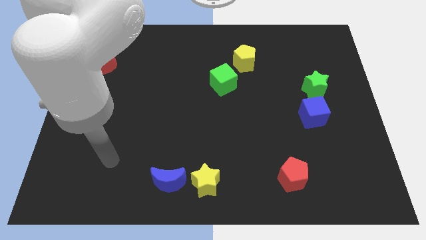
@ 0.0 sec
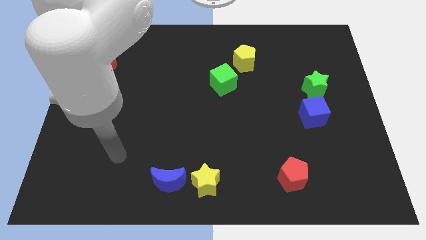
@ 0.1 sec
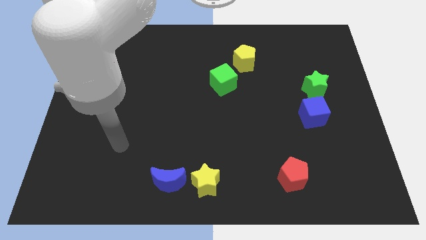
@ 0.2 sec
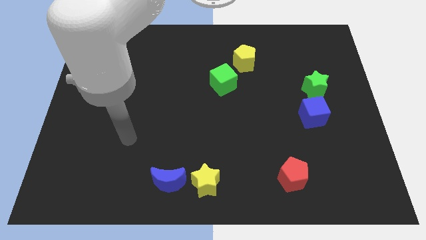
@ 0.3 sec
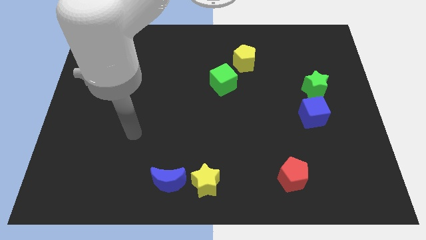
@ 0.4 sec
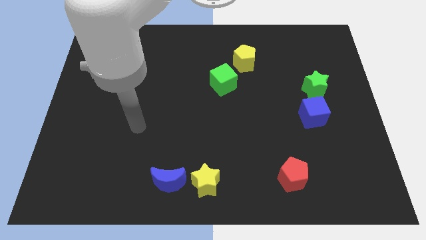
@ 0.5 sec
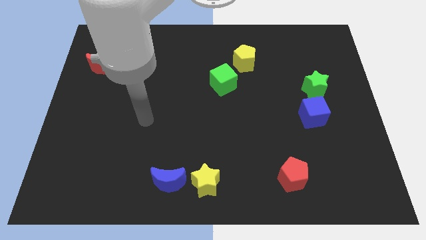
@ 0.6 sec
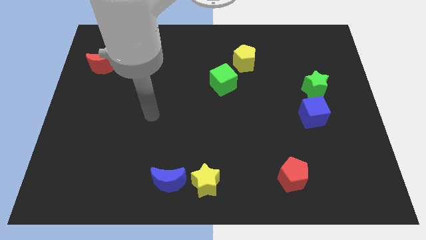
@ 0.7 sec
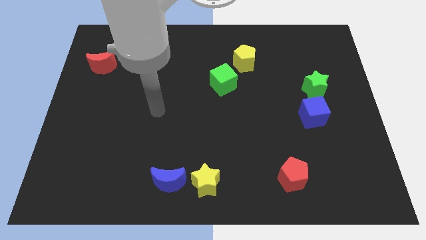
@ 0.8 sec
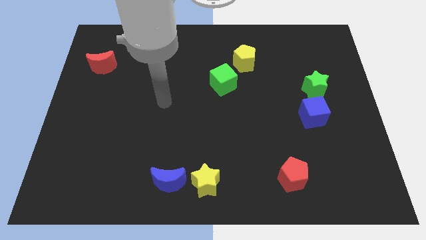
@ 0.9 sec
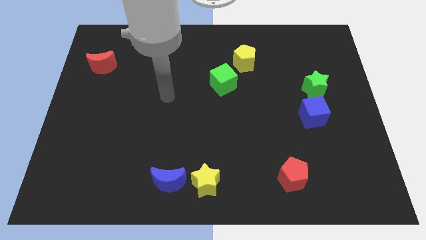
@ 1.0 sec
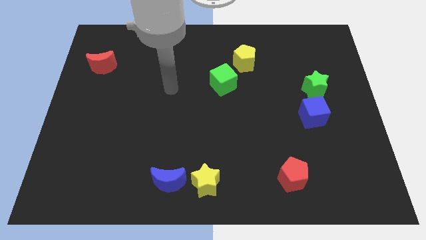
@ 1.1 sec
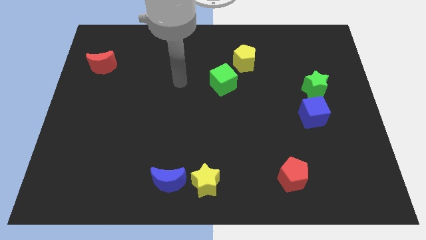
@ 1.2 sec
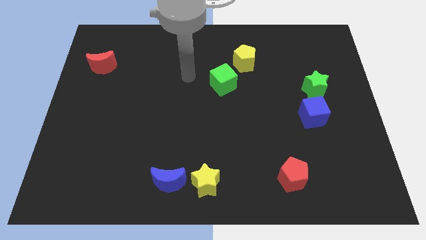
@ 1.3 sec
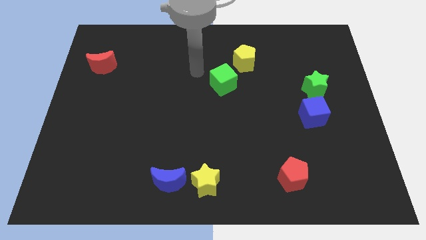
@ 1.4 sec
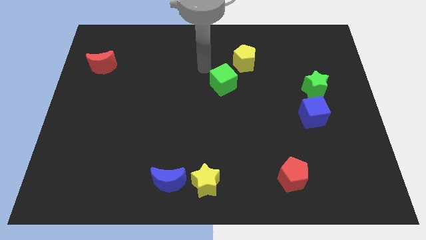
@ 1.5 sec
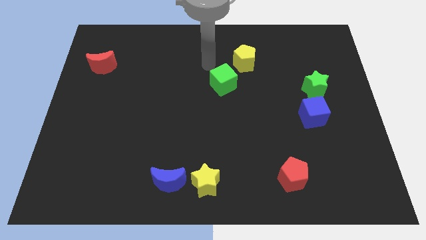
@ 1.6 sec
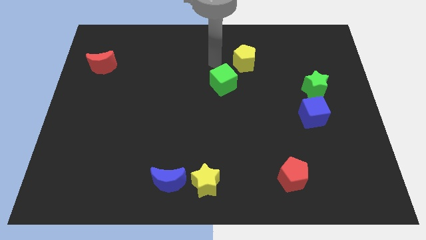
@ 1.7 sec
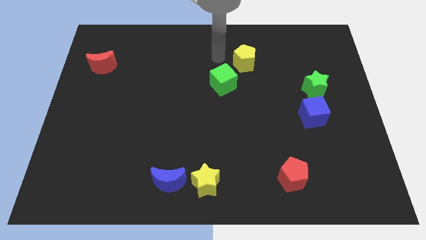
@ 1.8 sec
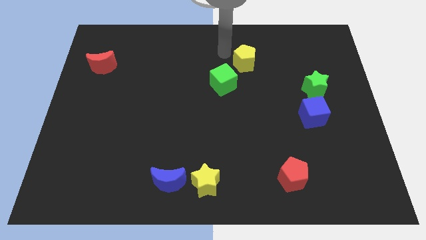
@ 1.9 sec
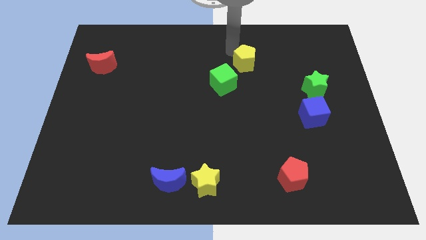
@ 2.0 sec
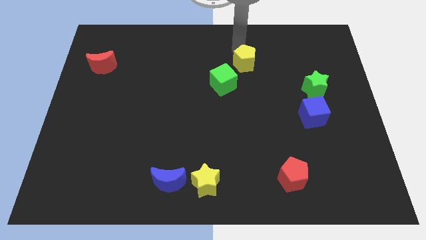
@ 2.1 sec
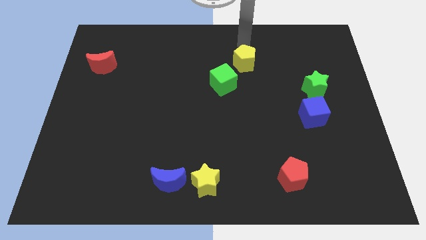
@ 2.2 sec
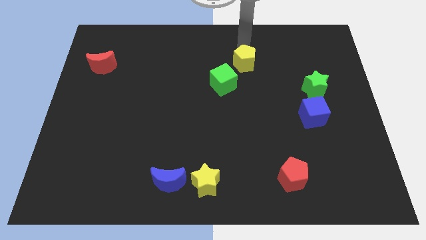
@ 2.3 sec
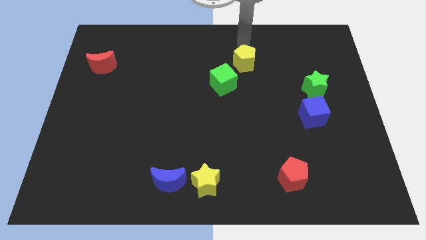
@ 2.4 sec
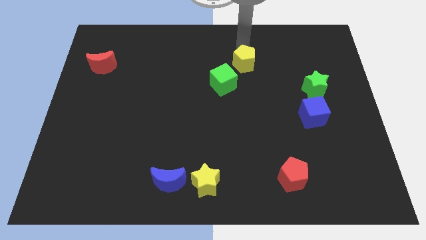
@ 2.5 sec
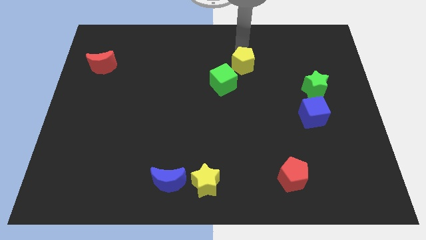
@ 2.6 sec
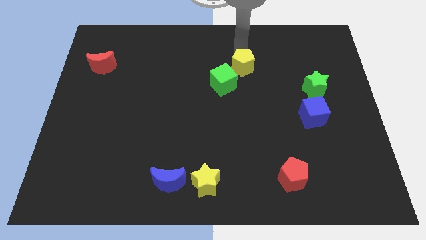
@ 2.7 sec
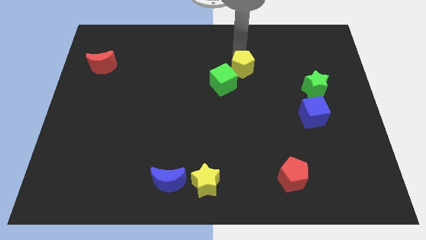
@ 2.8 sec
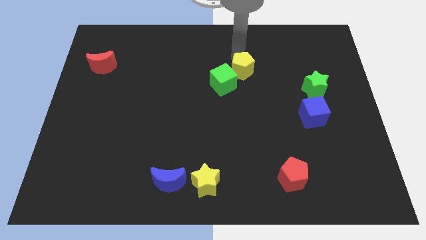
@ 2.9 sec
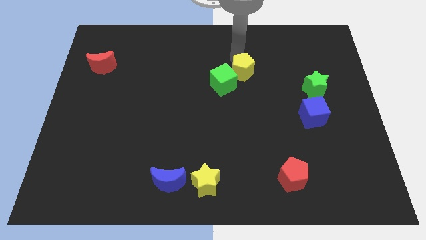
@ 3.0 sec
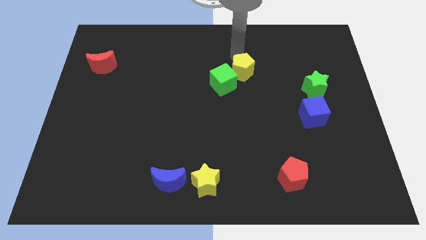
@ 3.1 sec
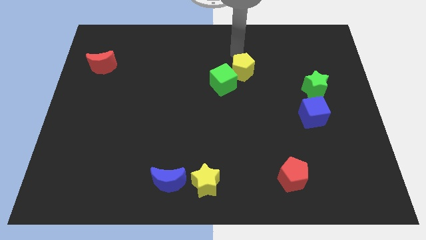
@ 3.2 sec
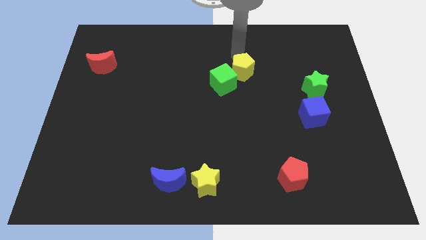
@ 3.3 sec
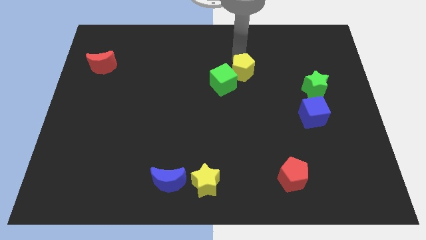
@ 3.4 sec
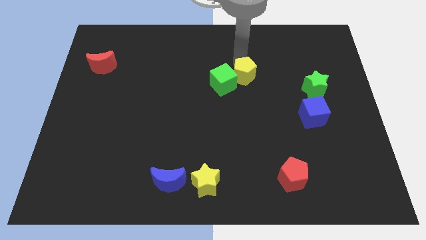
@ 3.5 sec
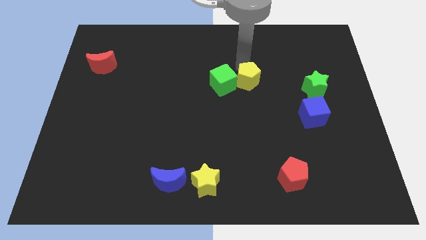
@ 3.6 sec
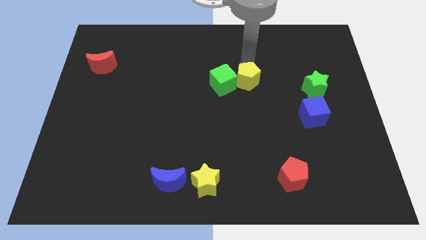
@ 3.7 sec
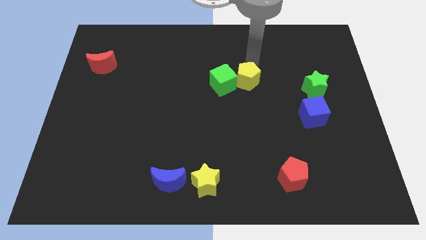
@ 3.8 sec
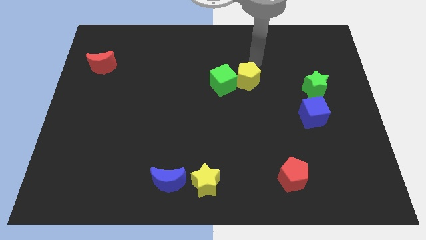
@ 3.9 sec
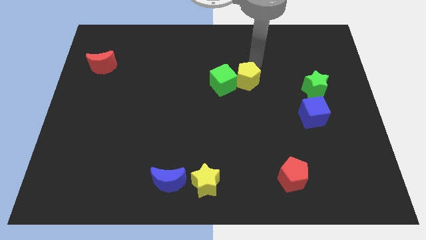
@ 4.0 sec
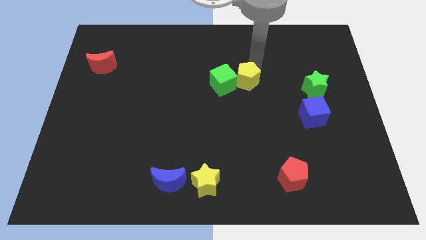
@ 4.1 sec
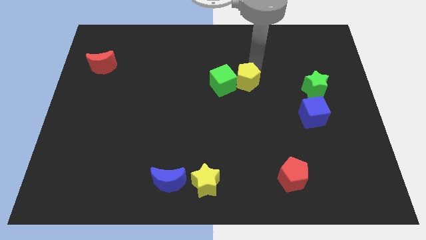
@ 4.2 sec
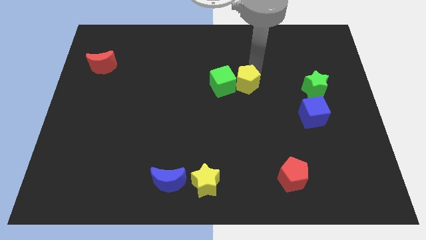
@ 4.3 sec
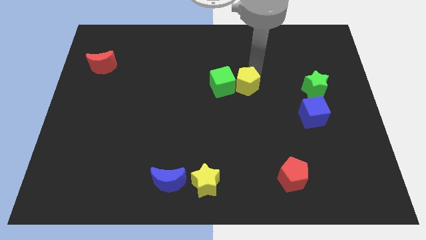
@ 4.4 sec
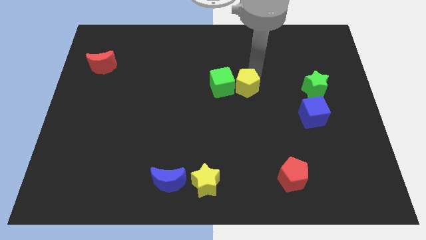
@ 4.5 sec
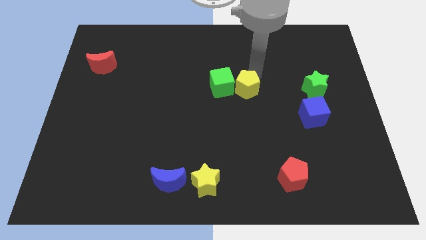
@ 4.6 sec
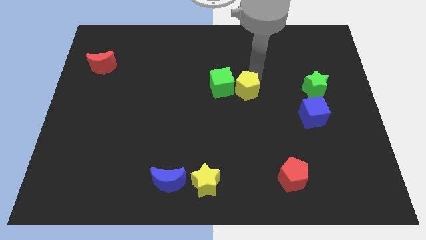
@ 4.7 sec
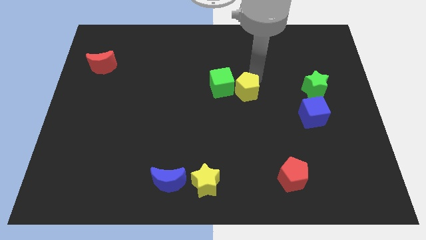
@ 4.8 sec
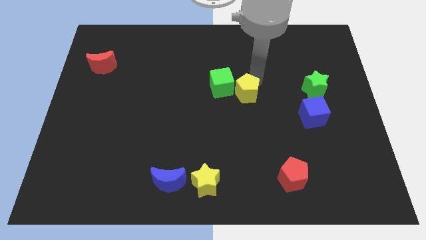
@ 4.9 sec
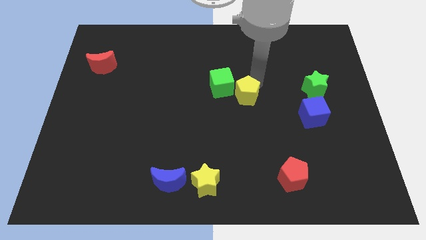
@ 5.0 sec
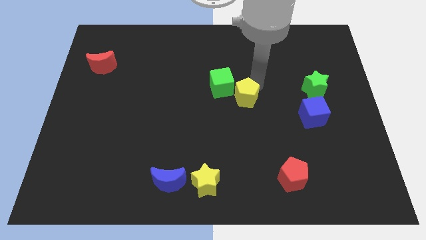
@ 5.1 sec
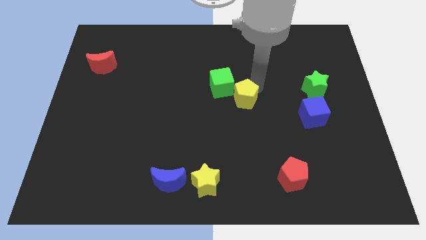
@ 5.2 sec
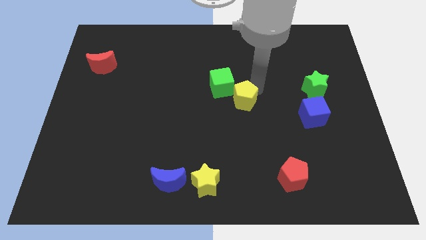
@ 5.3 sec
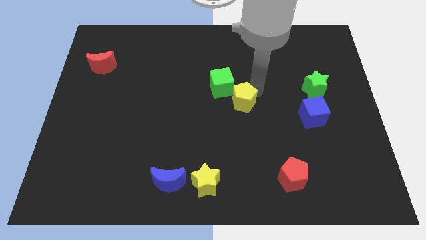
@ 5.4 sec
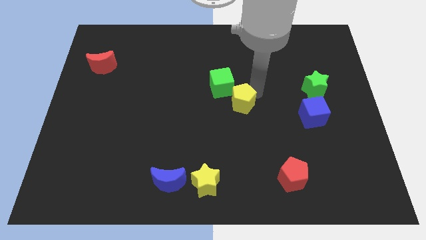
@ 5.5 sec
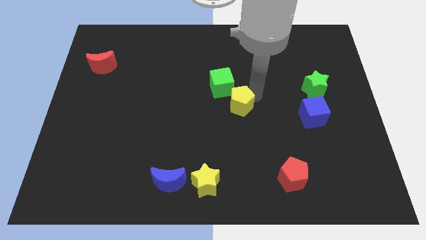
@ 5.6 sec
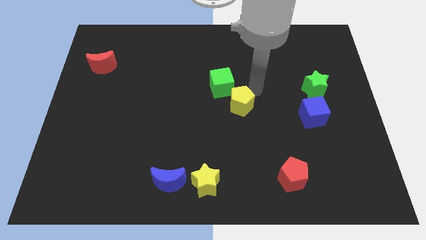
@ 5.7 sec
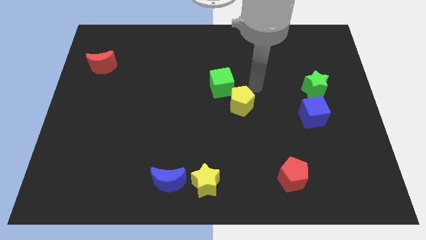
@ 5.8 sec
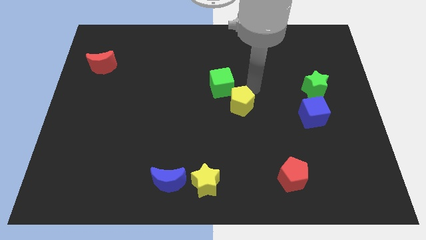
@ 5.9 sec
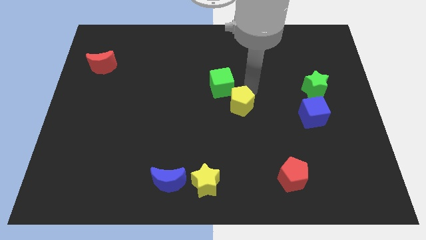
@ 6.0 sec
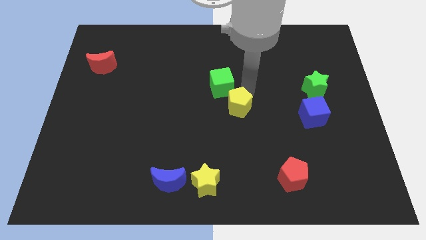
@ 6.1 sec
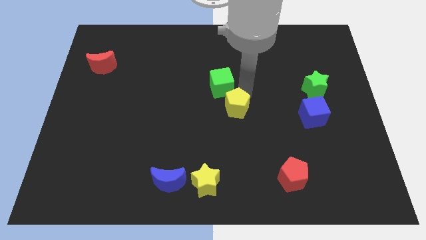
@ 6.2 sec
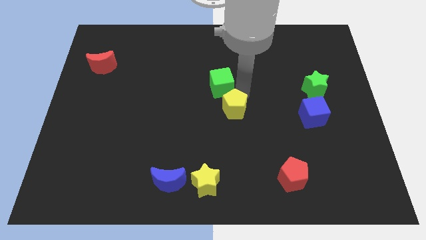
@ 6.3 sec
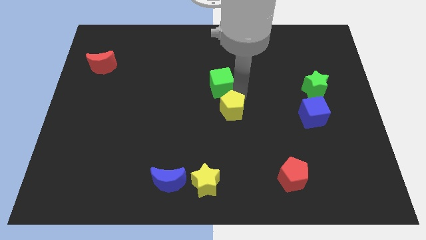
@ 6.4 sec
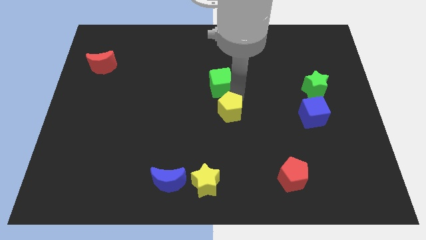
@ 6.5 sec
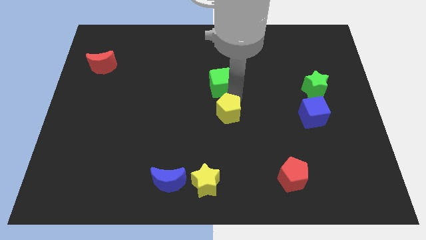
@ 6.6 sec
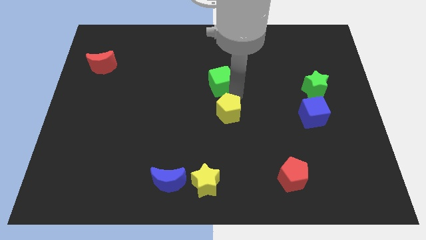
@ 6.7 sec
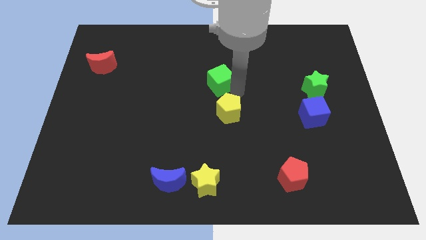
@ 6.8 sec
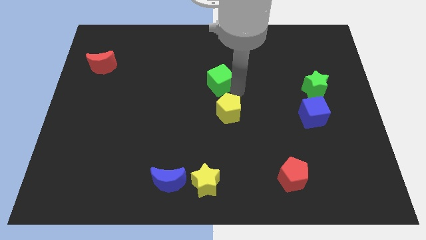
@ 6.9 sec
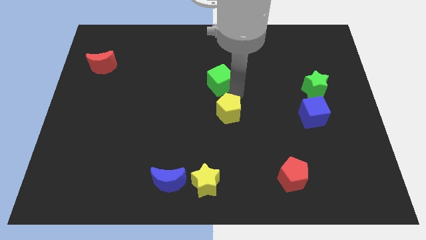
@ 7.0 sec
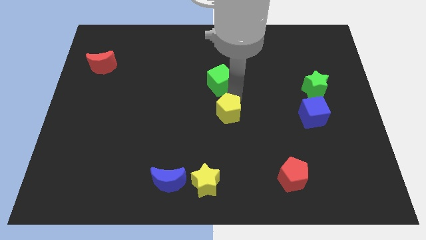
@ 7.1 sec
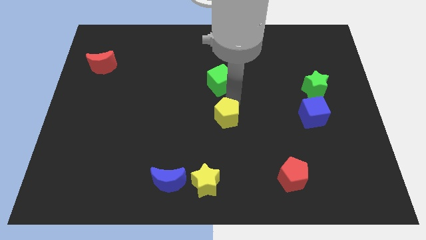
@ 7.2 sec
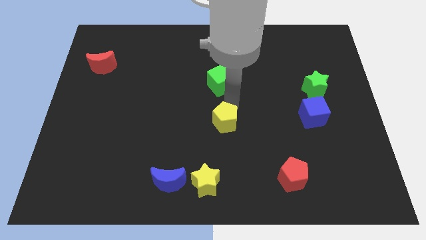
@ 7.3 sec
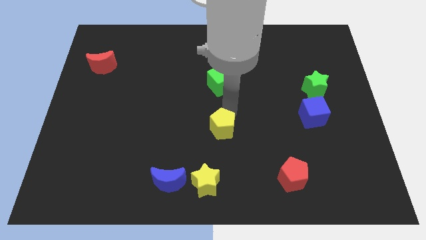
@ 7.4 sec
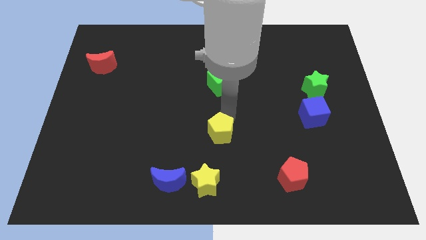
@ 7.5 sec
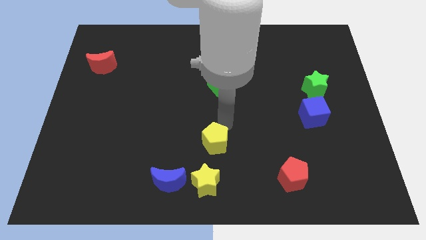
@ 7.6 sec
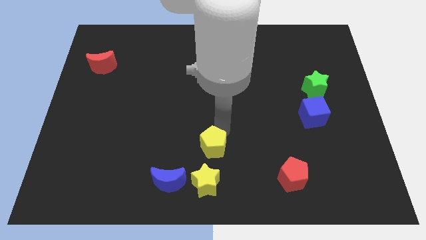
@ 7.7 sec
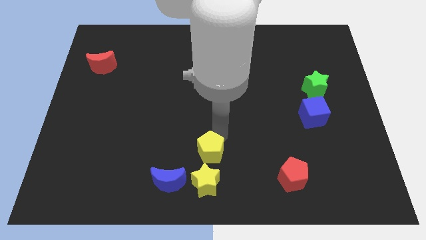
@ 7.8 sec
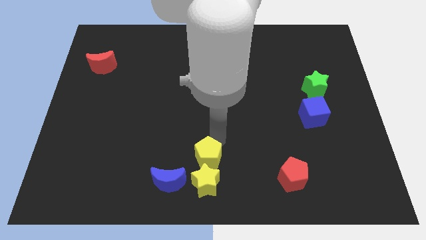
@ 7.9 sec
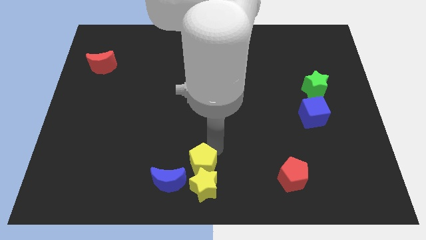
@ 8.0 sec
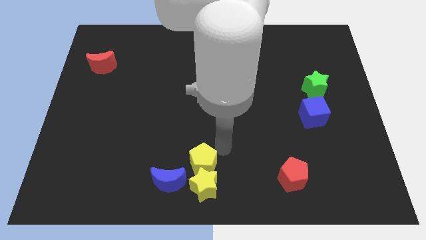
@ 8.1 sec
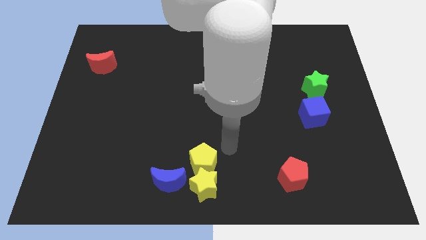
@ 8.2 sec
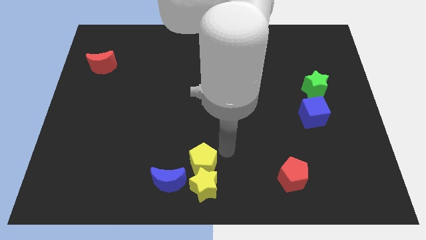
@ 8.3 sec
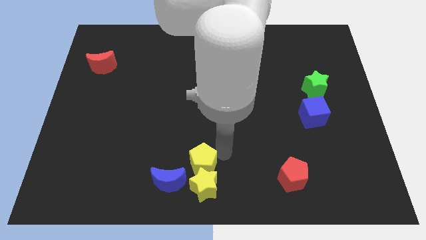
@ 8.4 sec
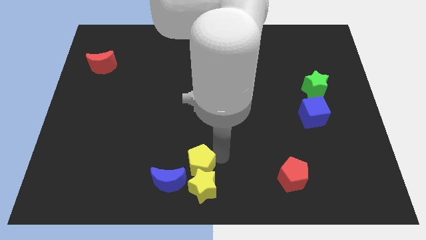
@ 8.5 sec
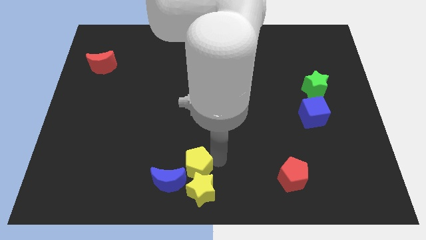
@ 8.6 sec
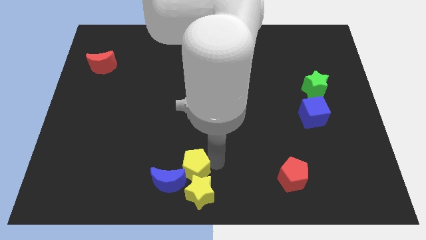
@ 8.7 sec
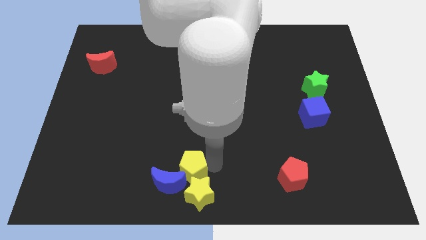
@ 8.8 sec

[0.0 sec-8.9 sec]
push the yellow pentagon next to the blue moon
